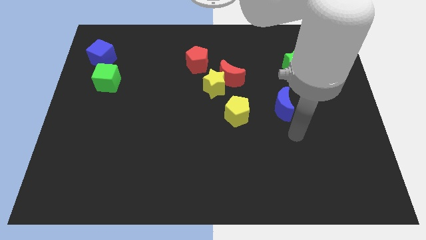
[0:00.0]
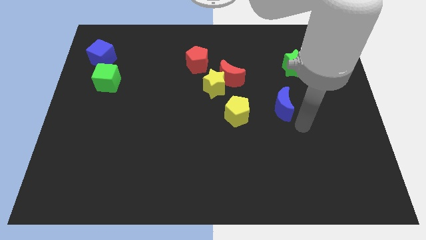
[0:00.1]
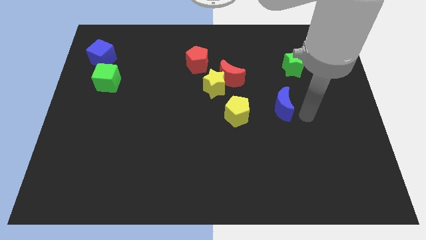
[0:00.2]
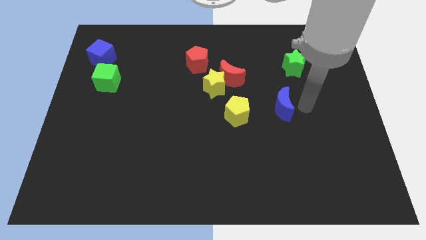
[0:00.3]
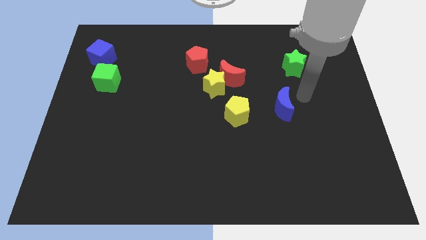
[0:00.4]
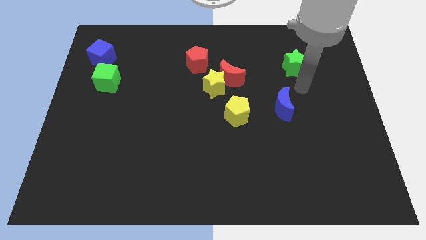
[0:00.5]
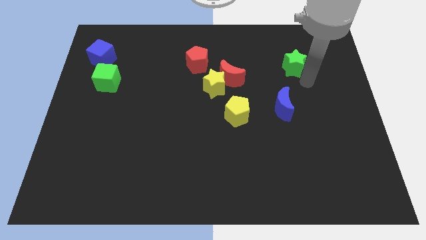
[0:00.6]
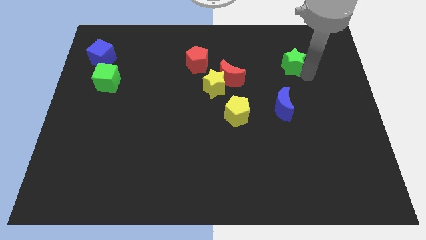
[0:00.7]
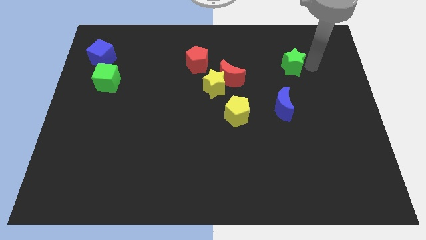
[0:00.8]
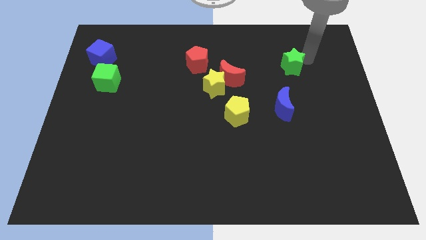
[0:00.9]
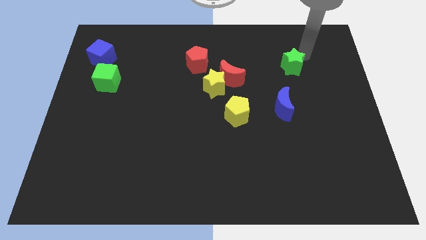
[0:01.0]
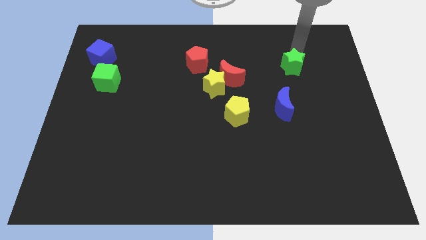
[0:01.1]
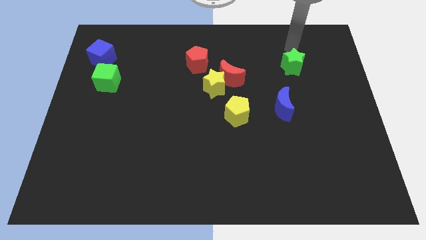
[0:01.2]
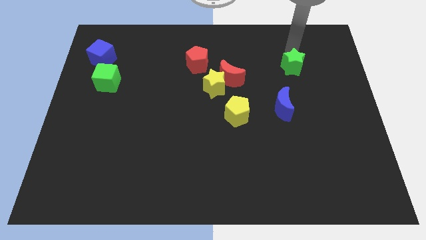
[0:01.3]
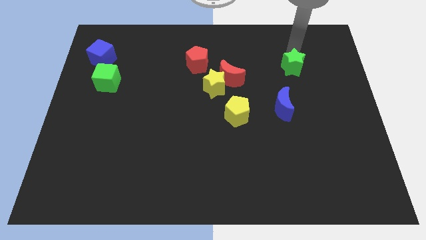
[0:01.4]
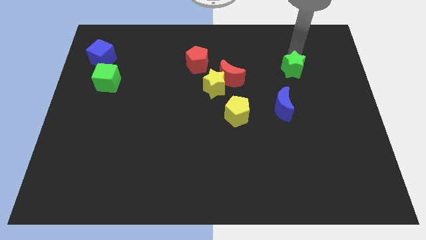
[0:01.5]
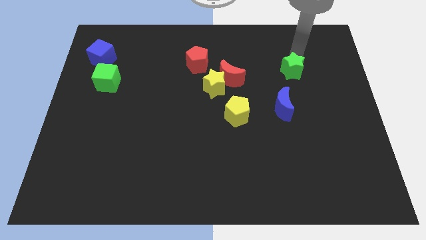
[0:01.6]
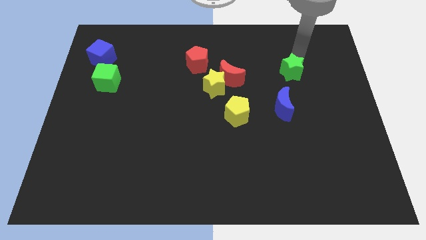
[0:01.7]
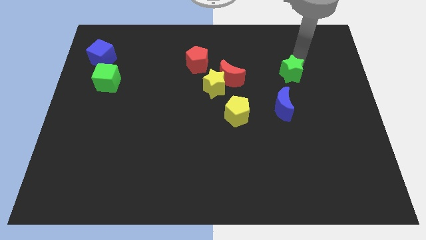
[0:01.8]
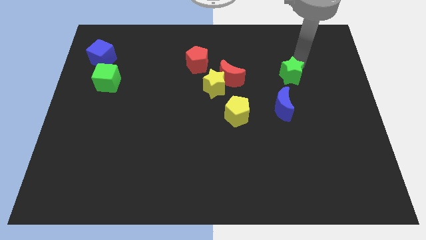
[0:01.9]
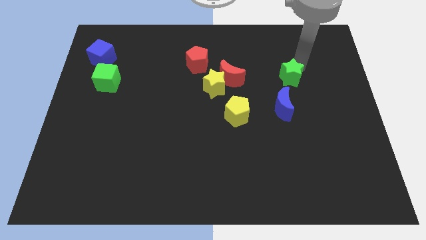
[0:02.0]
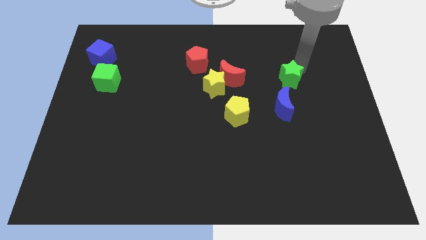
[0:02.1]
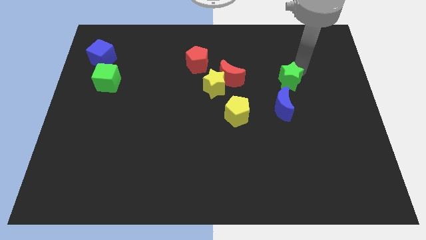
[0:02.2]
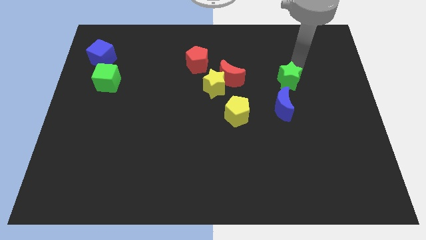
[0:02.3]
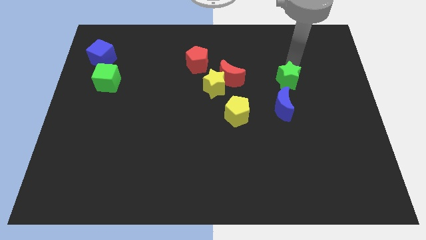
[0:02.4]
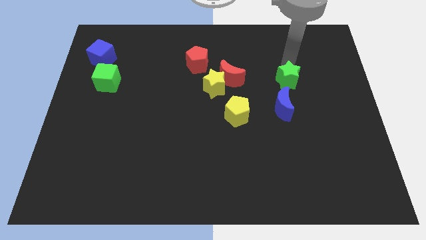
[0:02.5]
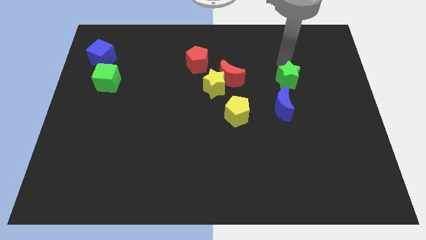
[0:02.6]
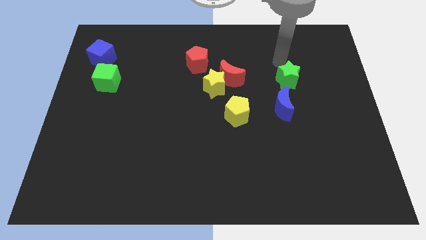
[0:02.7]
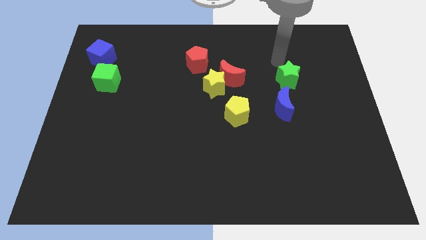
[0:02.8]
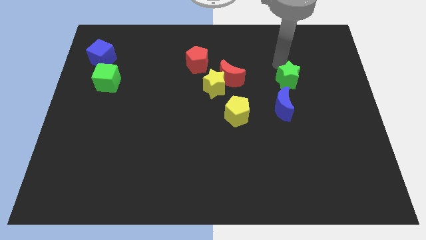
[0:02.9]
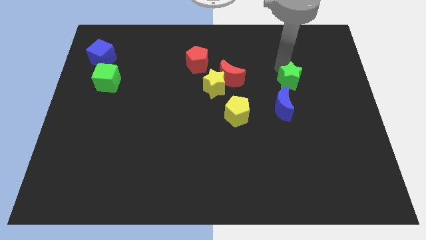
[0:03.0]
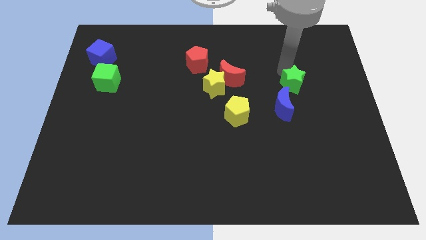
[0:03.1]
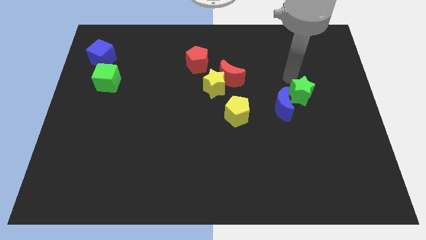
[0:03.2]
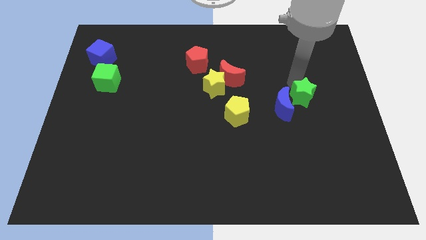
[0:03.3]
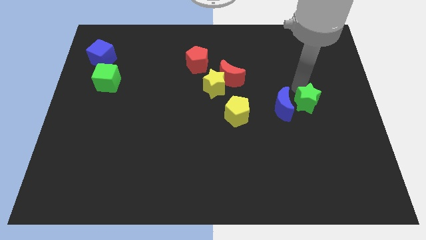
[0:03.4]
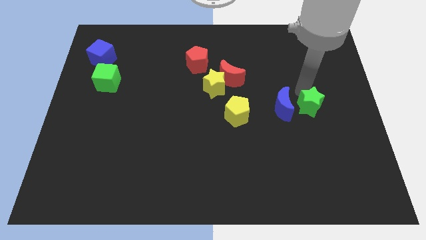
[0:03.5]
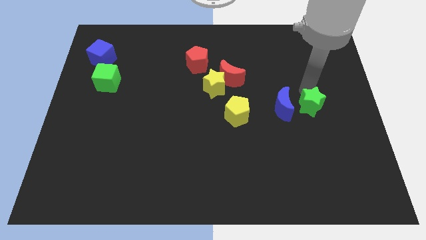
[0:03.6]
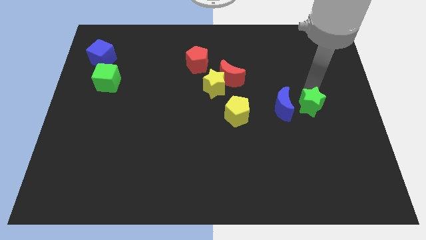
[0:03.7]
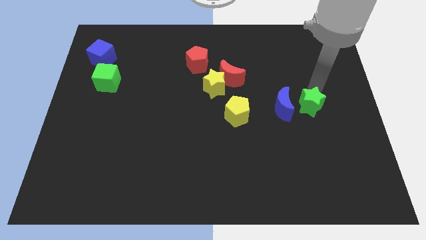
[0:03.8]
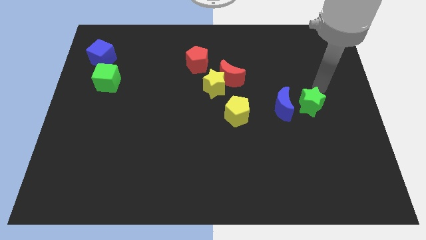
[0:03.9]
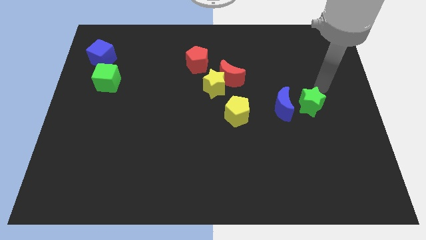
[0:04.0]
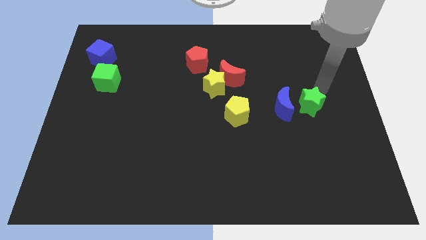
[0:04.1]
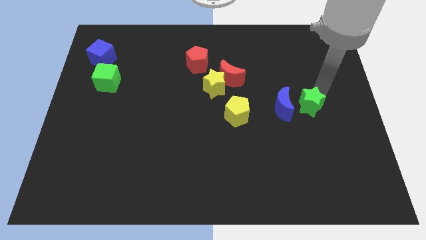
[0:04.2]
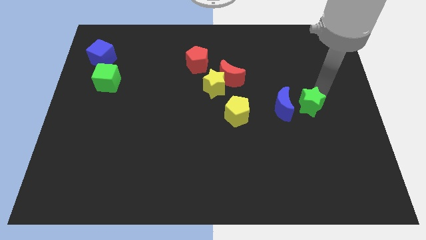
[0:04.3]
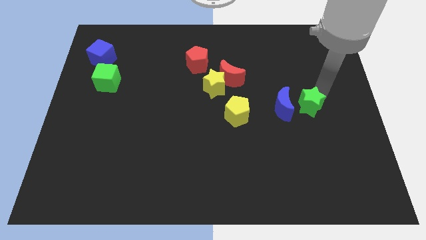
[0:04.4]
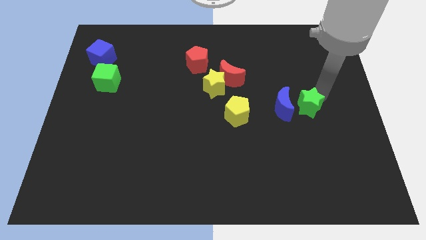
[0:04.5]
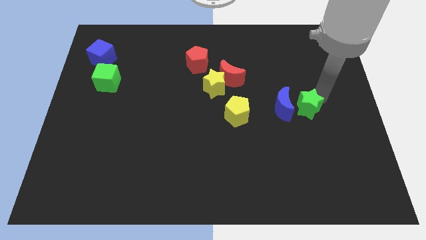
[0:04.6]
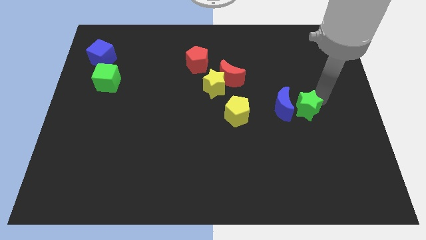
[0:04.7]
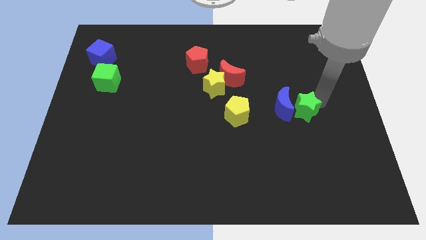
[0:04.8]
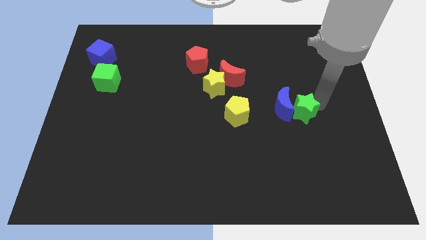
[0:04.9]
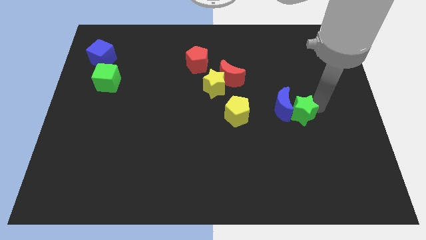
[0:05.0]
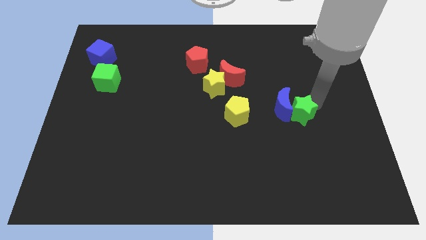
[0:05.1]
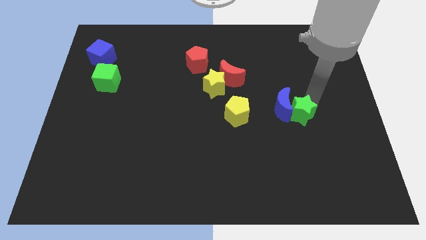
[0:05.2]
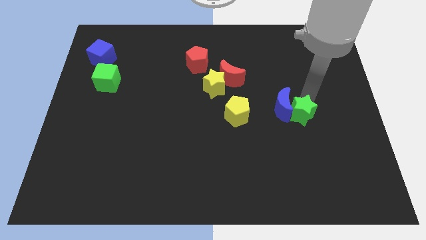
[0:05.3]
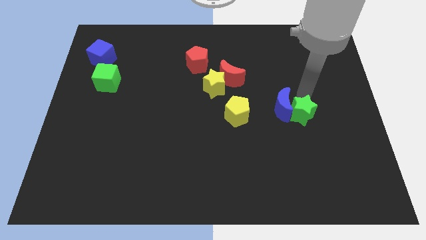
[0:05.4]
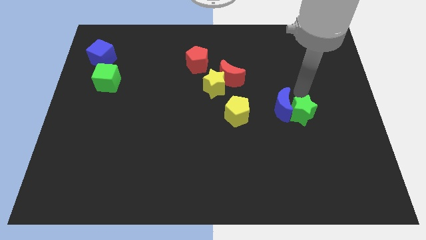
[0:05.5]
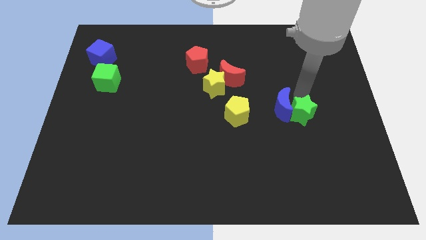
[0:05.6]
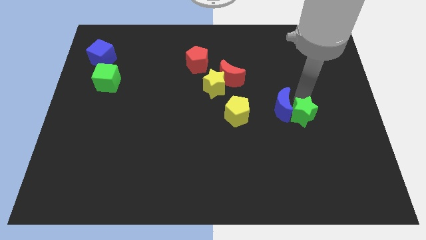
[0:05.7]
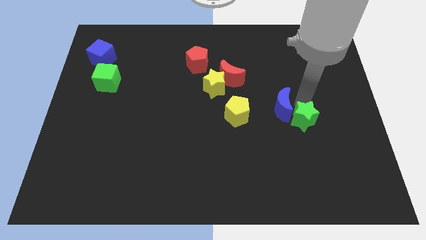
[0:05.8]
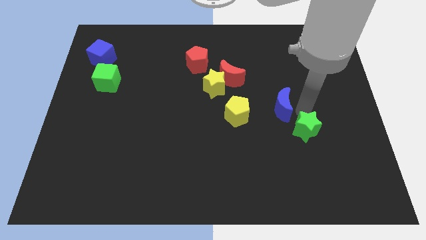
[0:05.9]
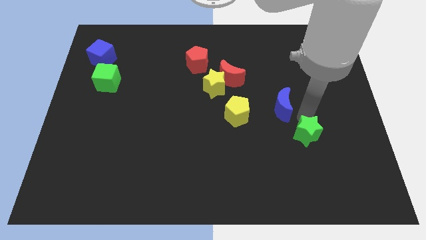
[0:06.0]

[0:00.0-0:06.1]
push the green star downwards

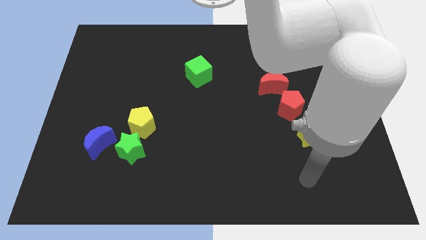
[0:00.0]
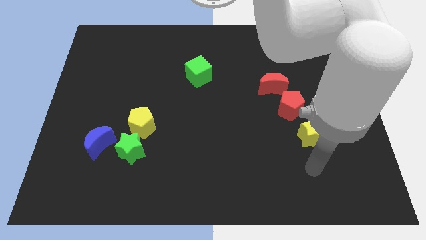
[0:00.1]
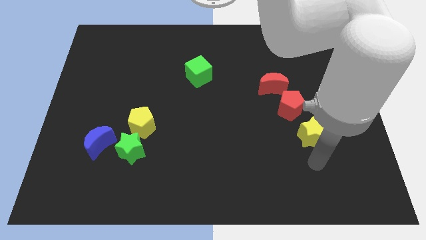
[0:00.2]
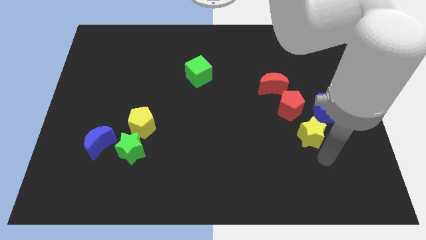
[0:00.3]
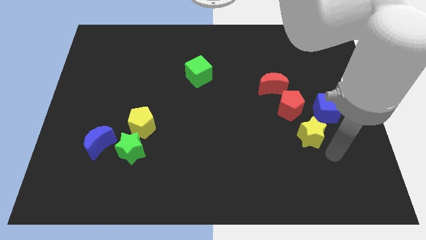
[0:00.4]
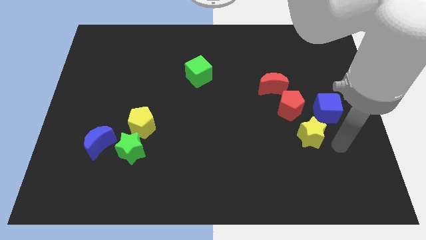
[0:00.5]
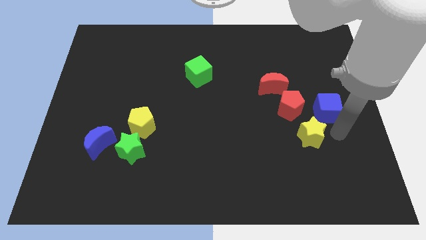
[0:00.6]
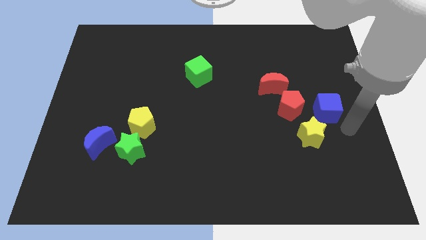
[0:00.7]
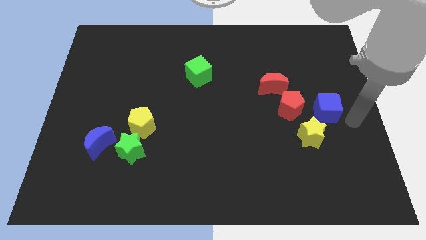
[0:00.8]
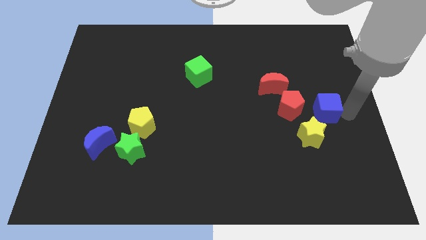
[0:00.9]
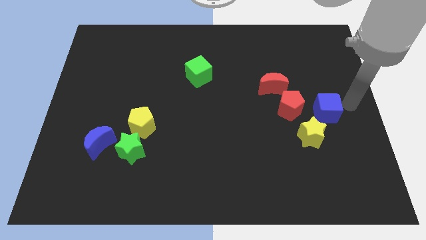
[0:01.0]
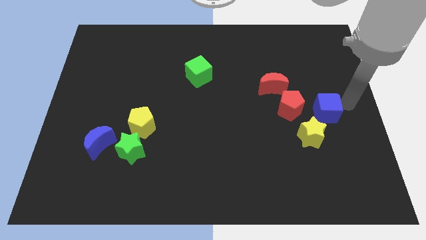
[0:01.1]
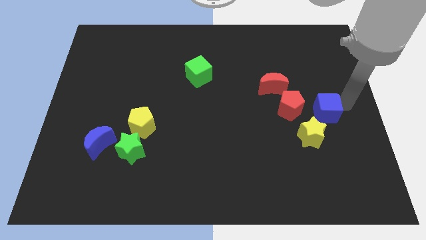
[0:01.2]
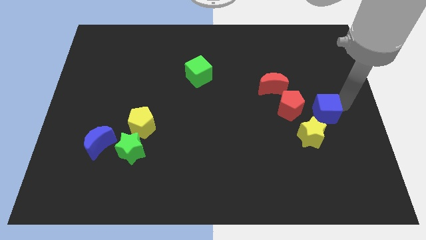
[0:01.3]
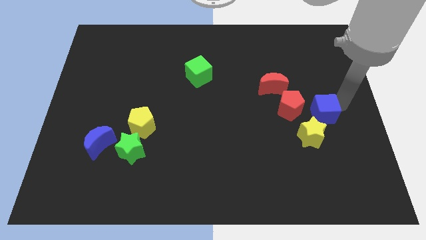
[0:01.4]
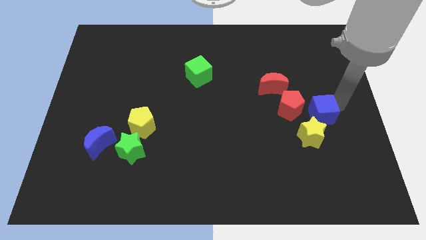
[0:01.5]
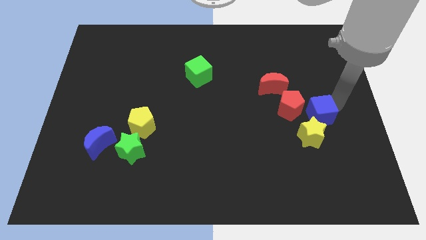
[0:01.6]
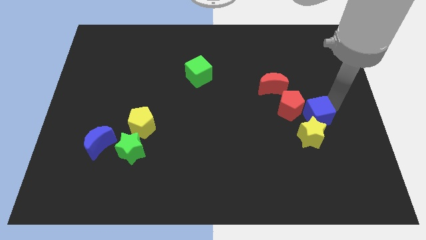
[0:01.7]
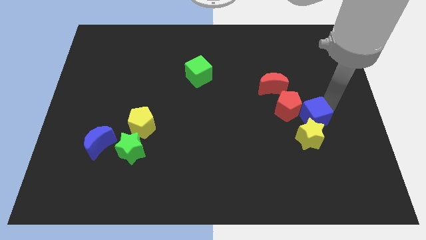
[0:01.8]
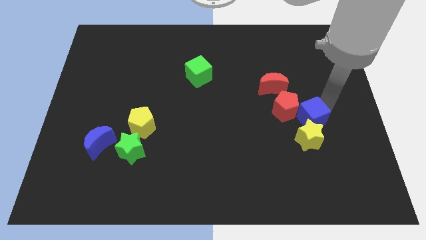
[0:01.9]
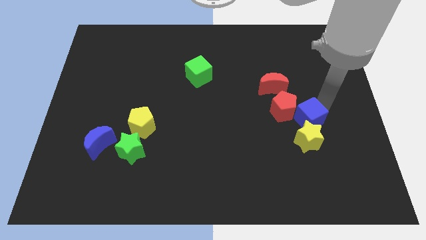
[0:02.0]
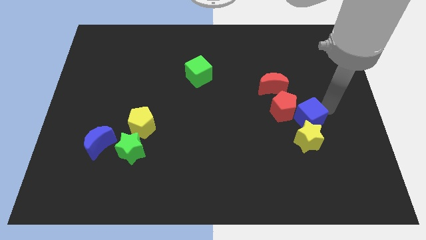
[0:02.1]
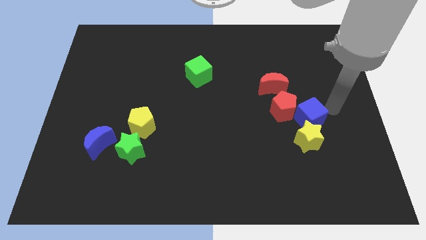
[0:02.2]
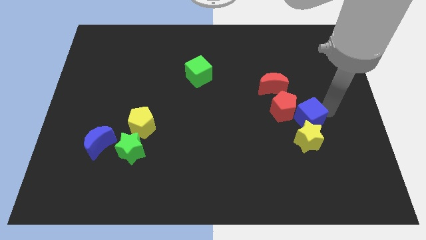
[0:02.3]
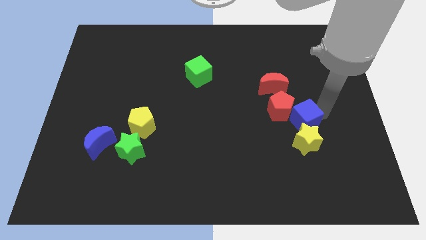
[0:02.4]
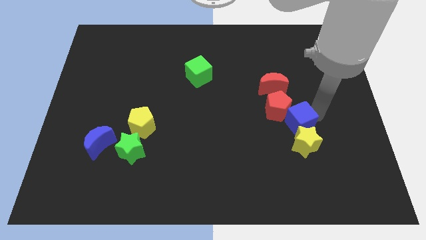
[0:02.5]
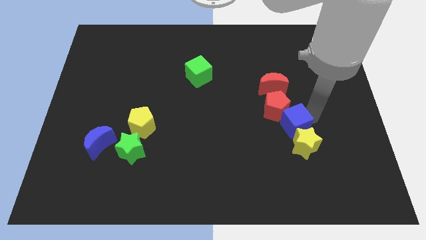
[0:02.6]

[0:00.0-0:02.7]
slightly push the blue cube downwards and left diagonally
